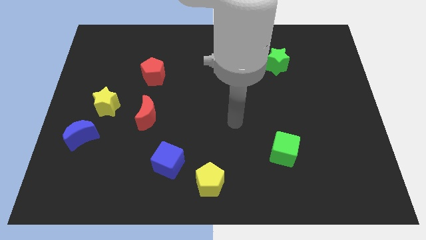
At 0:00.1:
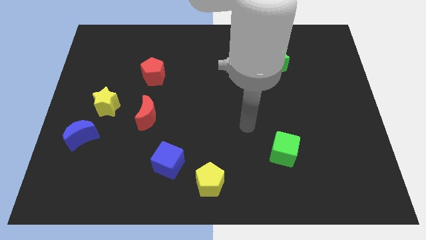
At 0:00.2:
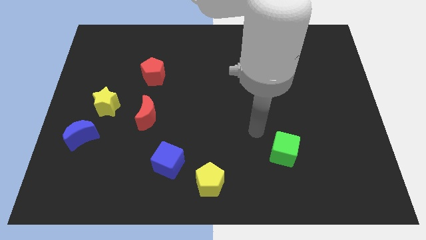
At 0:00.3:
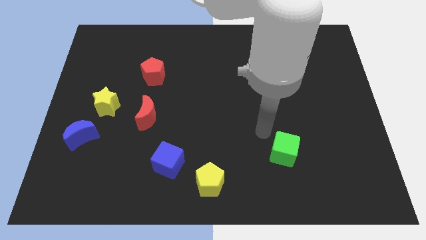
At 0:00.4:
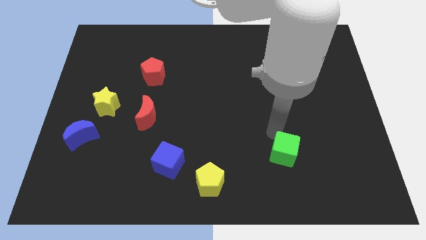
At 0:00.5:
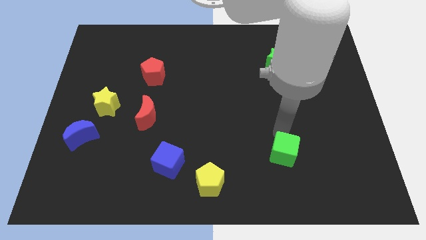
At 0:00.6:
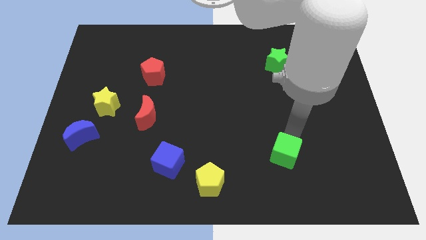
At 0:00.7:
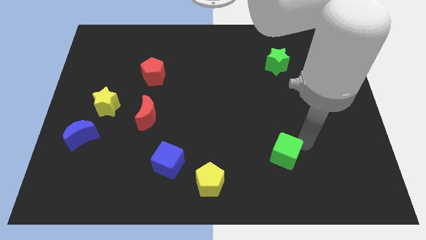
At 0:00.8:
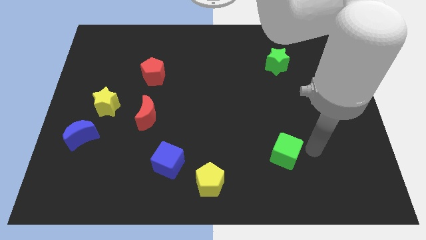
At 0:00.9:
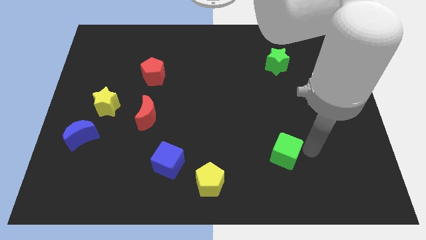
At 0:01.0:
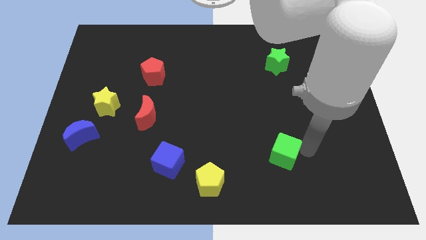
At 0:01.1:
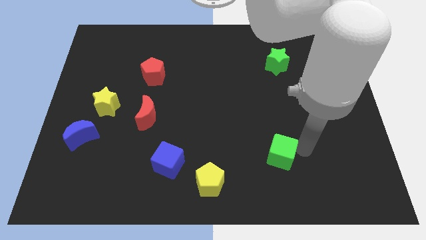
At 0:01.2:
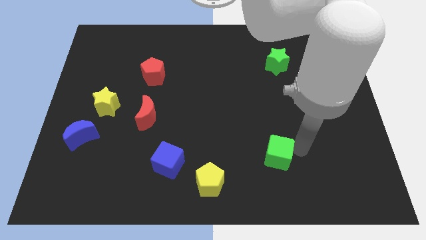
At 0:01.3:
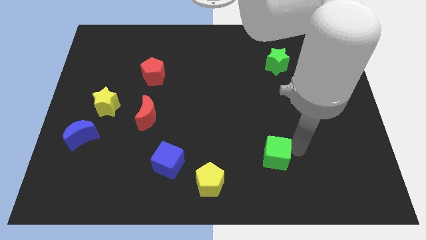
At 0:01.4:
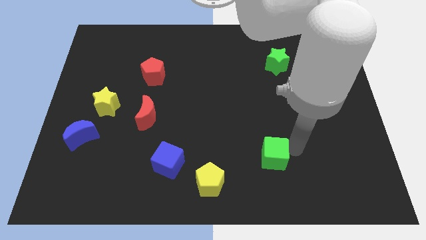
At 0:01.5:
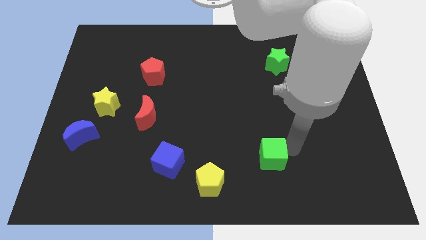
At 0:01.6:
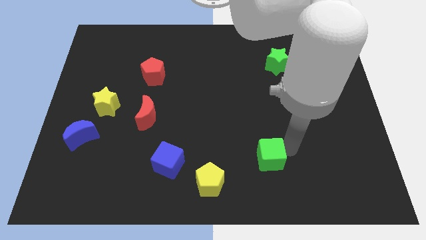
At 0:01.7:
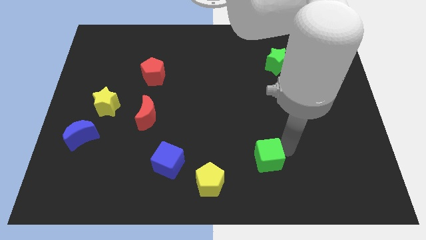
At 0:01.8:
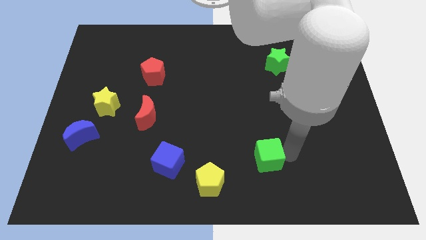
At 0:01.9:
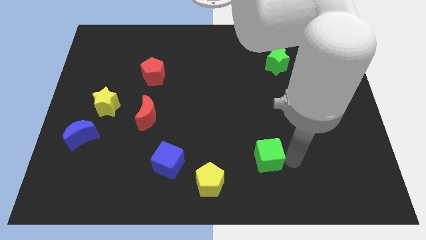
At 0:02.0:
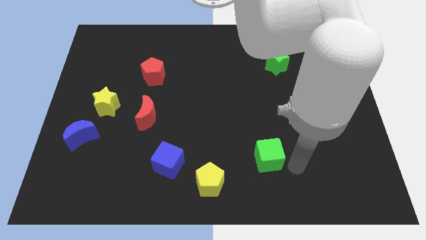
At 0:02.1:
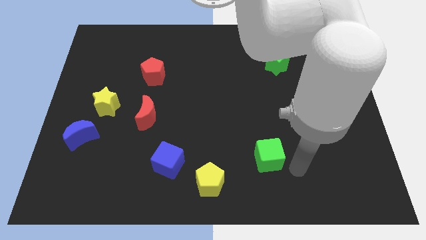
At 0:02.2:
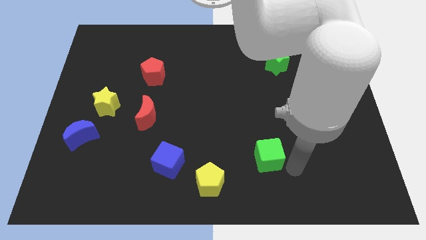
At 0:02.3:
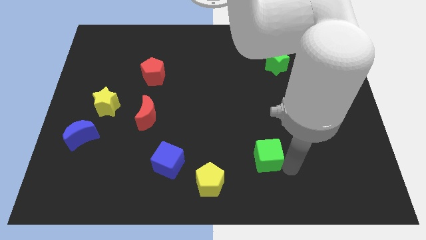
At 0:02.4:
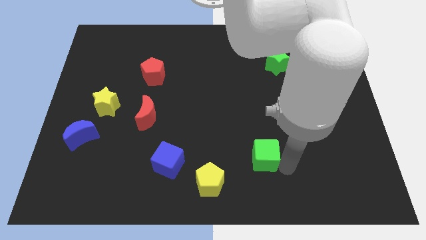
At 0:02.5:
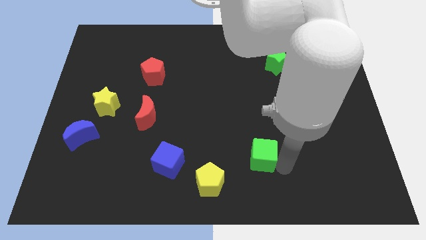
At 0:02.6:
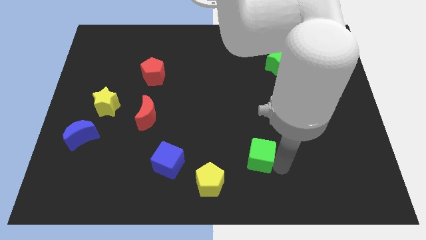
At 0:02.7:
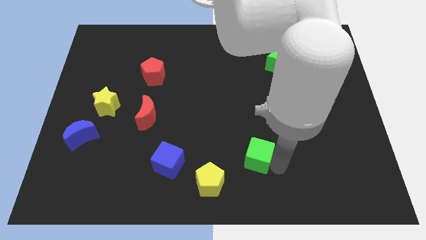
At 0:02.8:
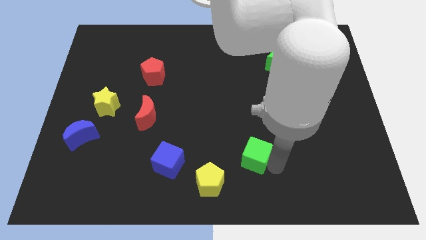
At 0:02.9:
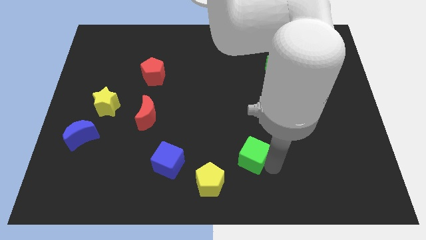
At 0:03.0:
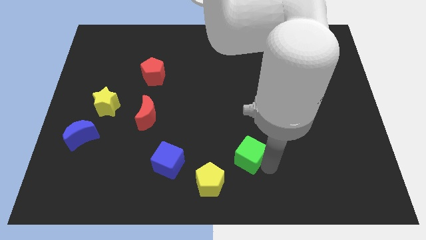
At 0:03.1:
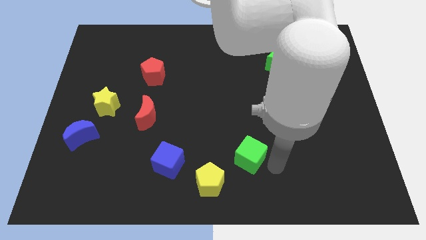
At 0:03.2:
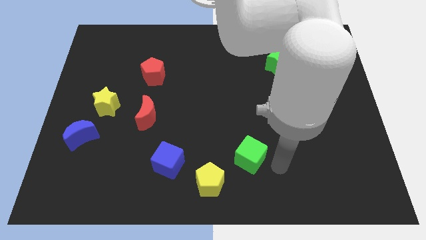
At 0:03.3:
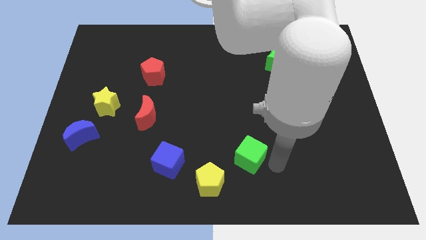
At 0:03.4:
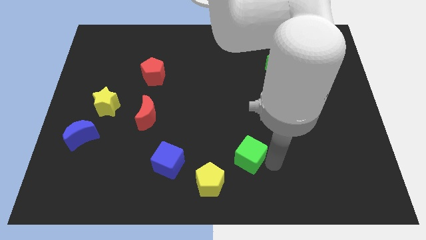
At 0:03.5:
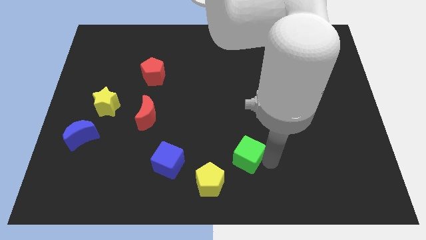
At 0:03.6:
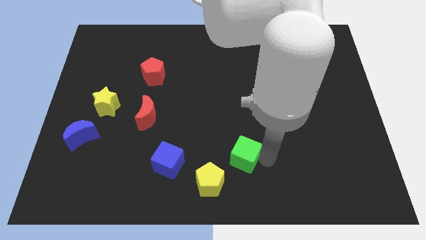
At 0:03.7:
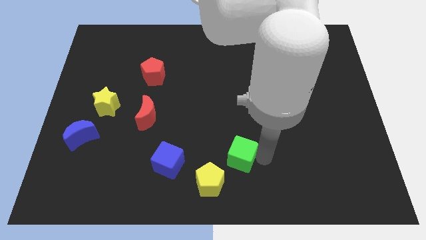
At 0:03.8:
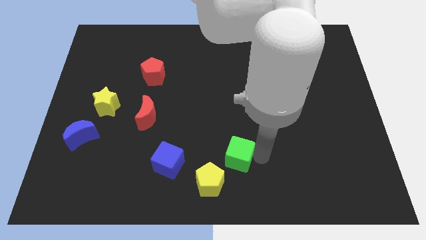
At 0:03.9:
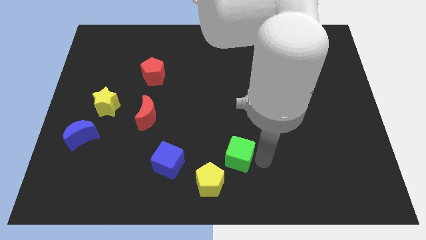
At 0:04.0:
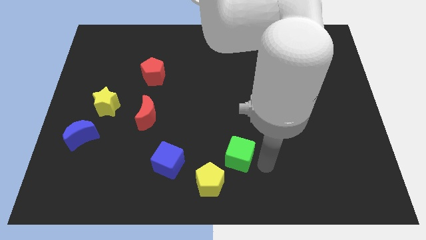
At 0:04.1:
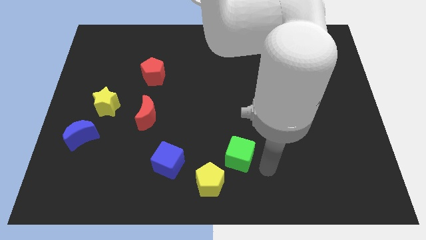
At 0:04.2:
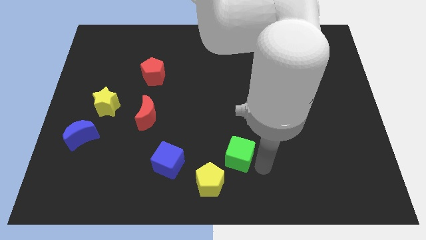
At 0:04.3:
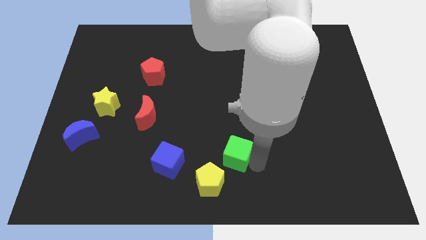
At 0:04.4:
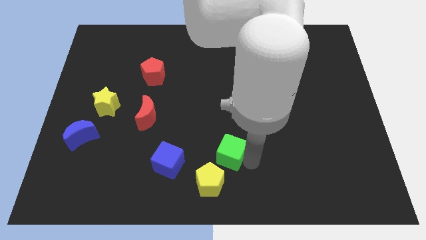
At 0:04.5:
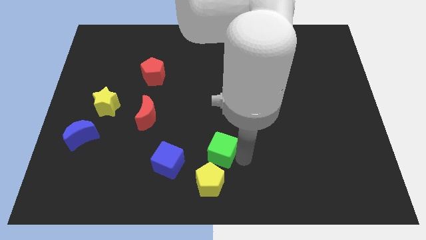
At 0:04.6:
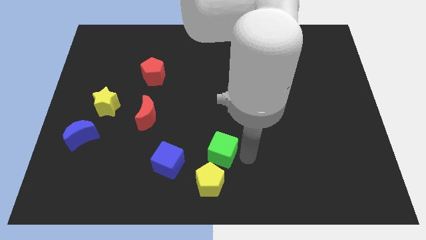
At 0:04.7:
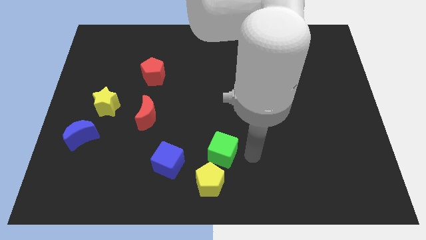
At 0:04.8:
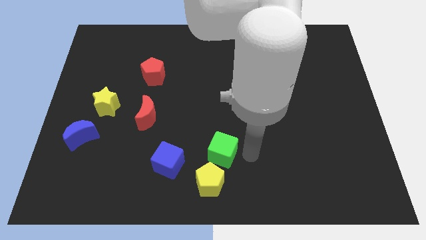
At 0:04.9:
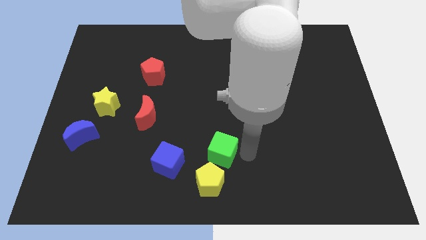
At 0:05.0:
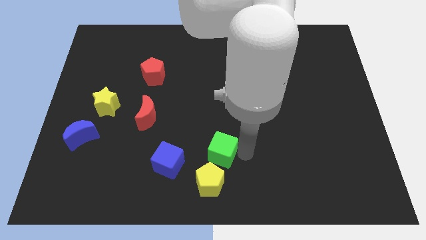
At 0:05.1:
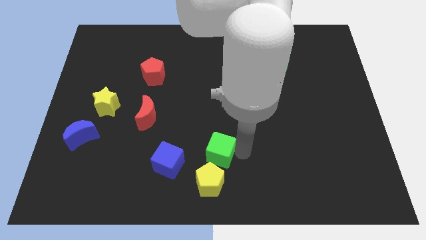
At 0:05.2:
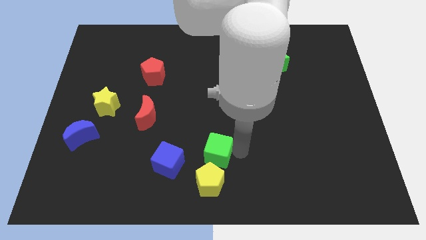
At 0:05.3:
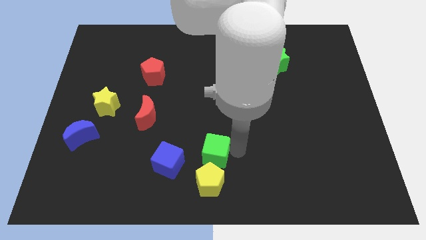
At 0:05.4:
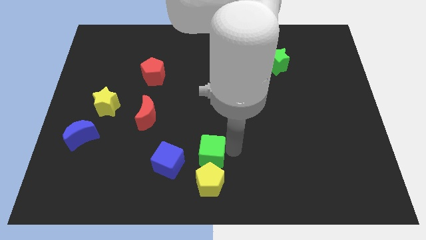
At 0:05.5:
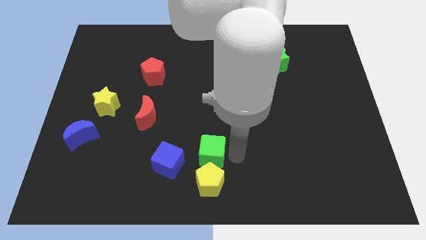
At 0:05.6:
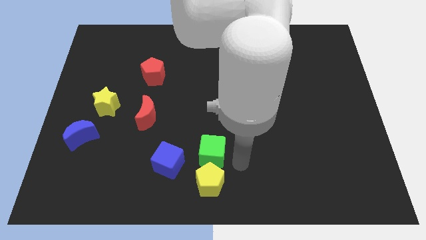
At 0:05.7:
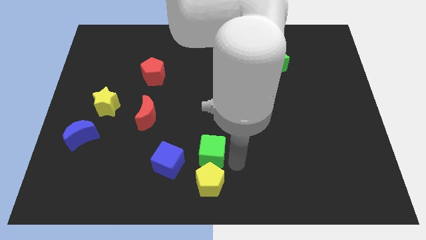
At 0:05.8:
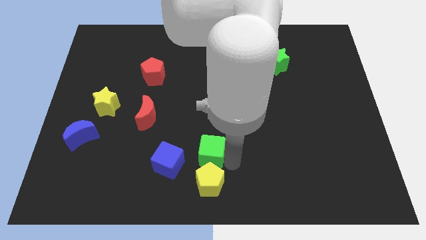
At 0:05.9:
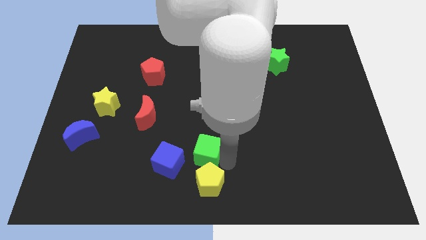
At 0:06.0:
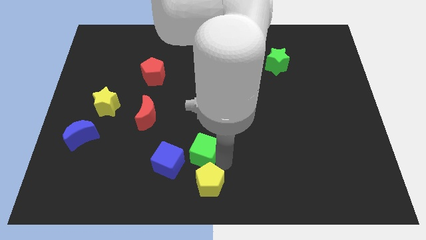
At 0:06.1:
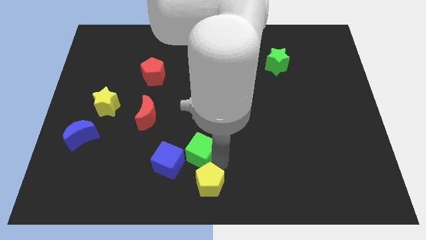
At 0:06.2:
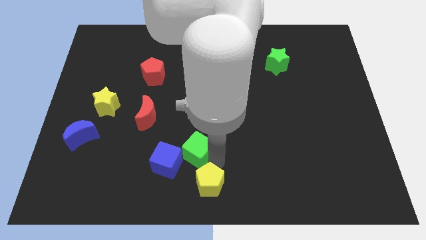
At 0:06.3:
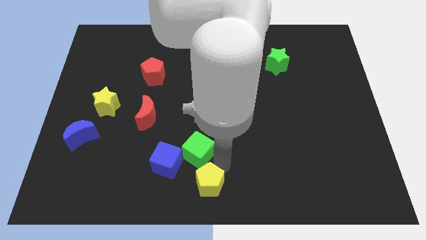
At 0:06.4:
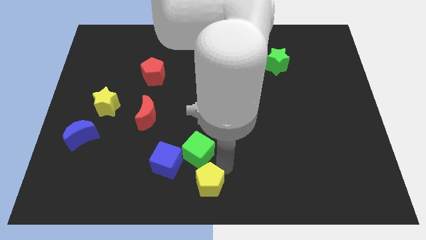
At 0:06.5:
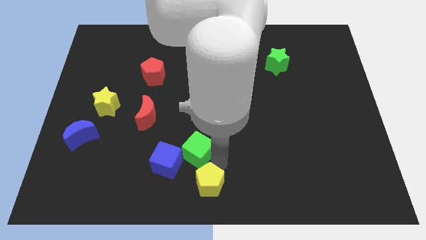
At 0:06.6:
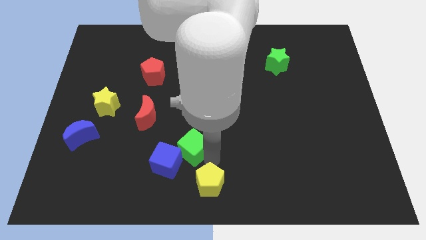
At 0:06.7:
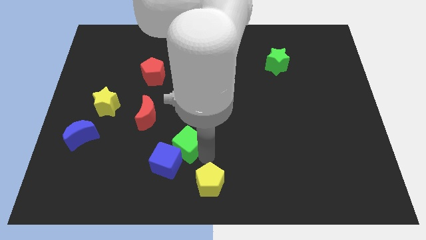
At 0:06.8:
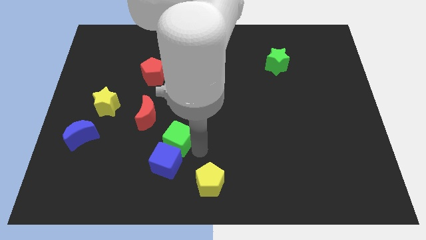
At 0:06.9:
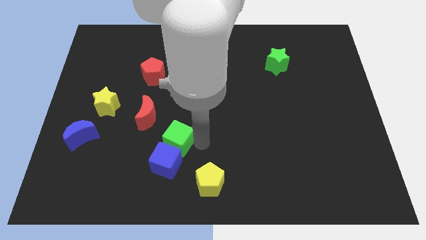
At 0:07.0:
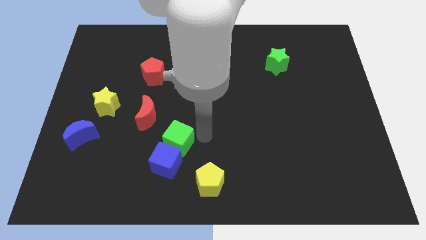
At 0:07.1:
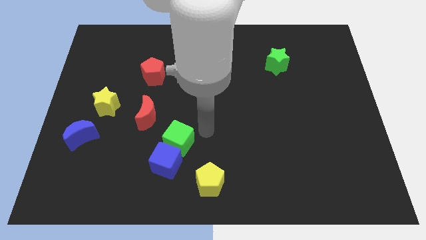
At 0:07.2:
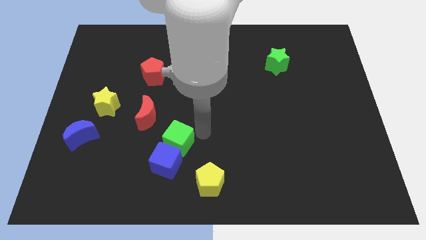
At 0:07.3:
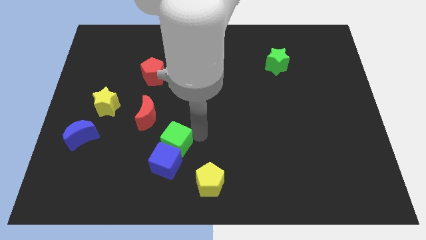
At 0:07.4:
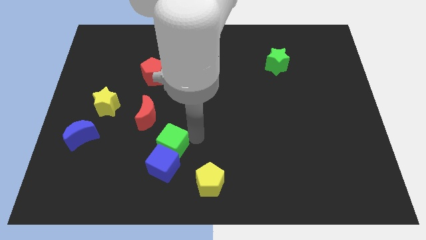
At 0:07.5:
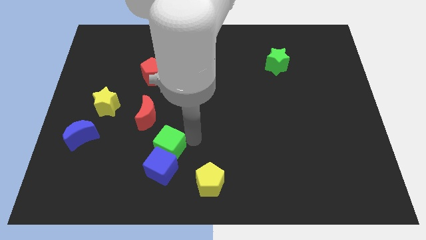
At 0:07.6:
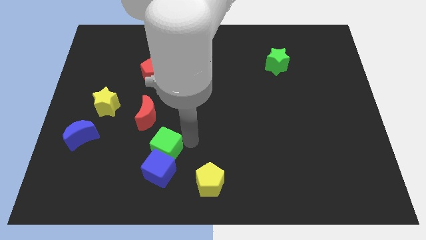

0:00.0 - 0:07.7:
put the green cube below the red moon

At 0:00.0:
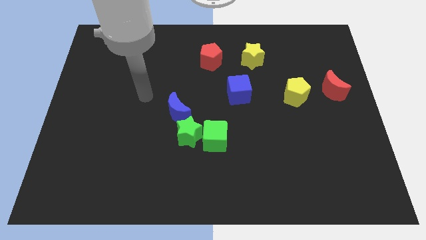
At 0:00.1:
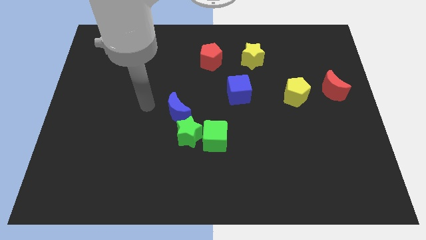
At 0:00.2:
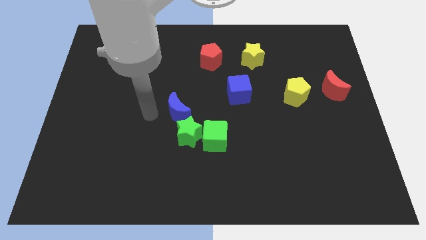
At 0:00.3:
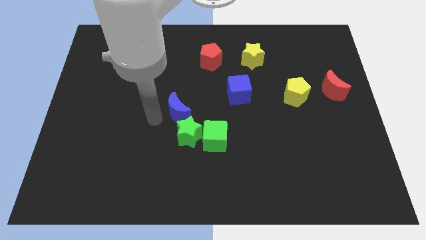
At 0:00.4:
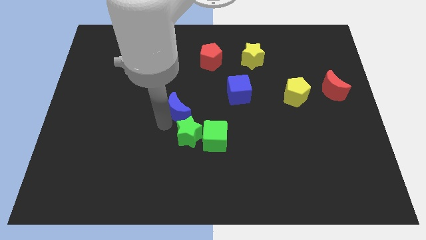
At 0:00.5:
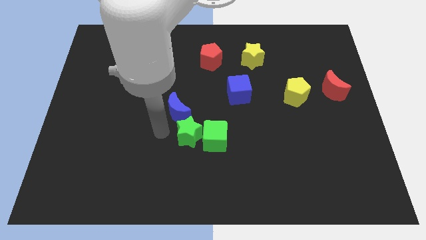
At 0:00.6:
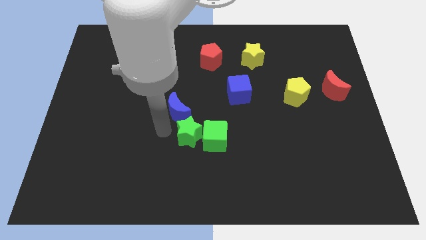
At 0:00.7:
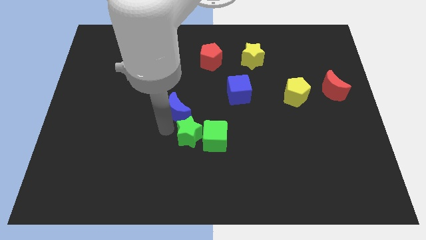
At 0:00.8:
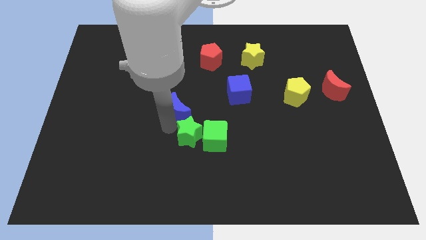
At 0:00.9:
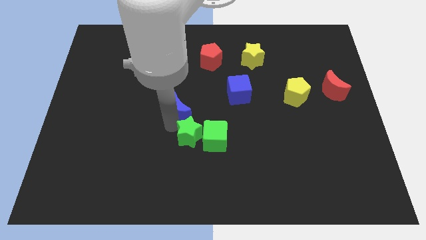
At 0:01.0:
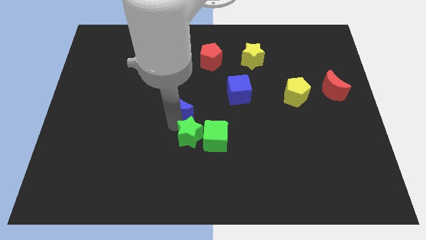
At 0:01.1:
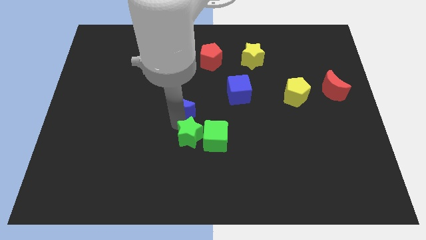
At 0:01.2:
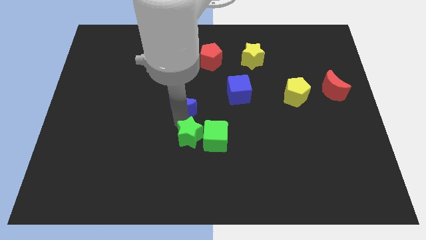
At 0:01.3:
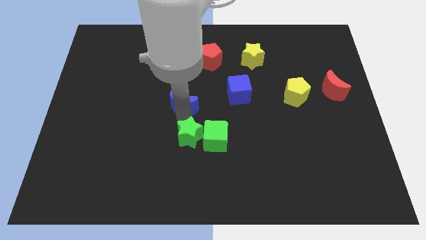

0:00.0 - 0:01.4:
put the blue moon to the left of the blue cube
